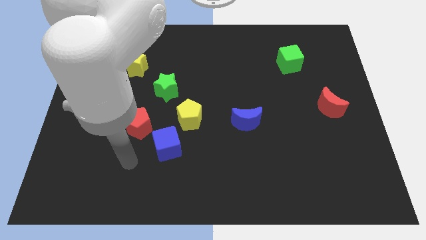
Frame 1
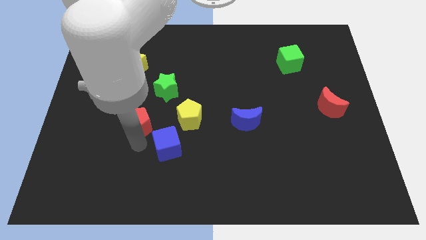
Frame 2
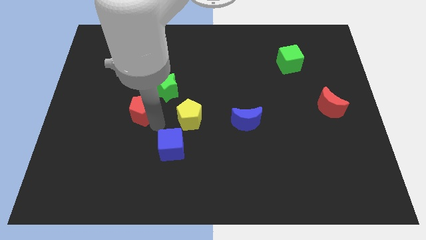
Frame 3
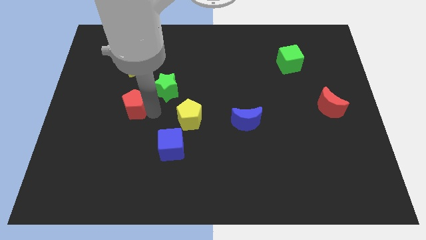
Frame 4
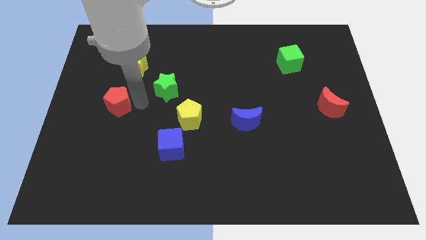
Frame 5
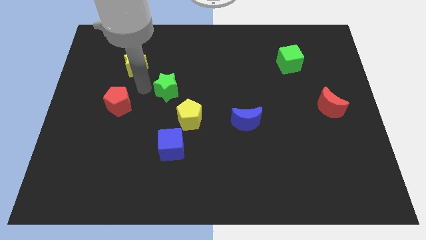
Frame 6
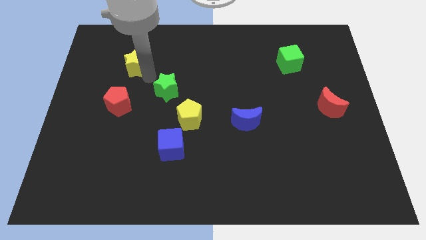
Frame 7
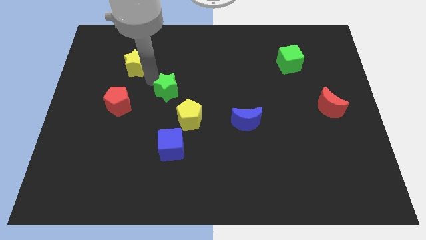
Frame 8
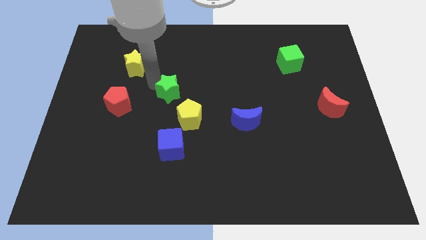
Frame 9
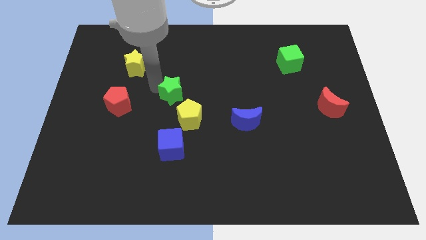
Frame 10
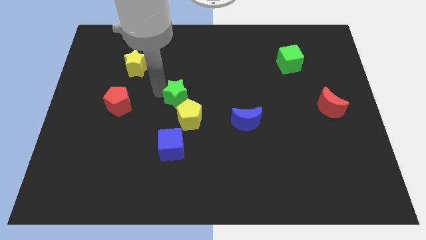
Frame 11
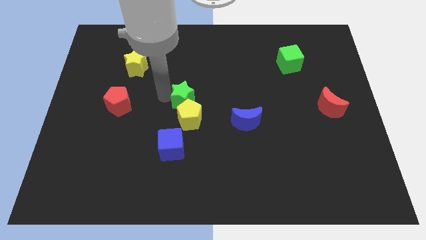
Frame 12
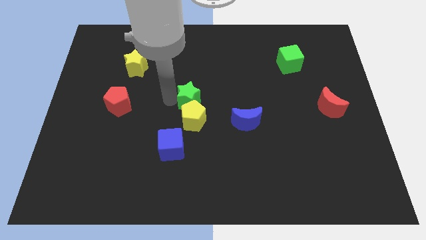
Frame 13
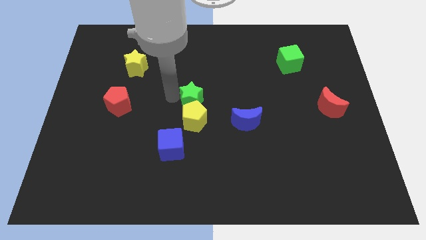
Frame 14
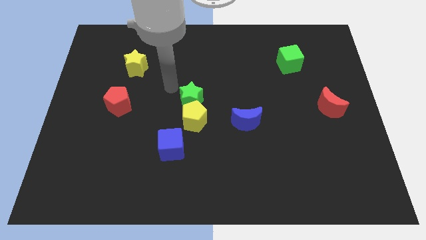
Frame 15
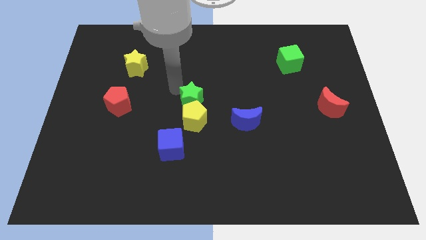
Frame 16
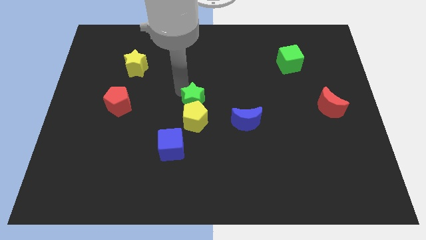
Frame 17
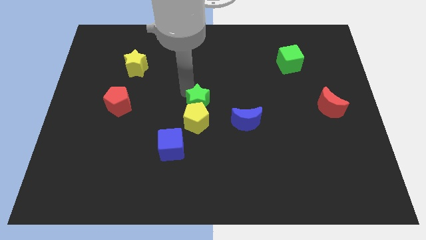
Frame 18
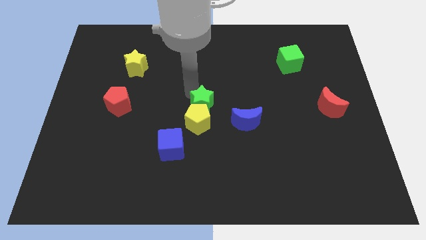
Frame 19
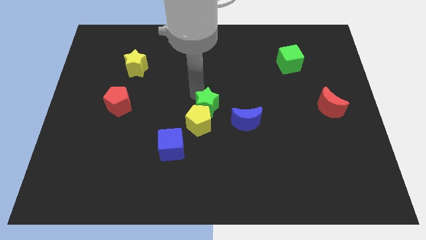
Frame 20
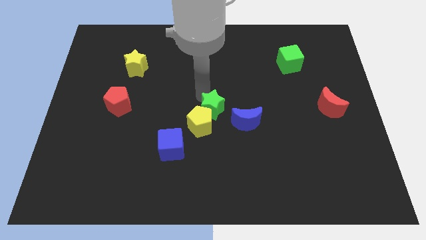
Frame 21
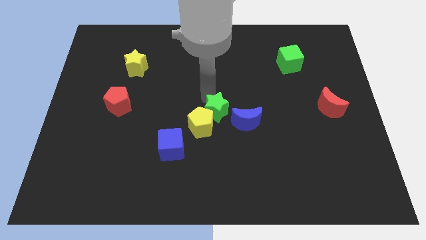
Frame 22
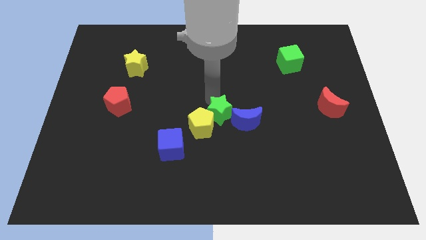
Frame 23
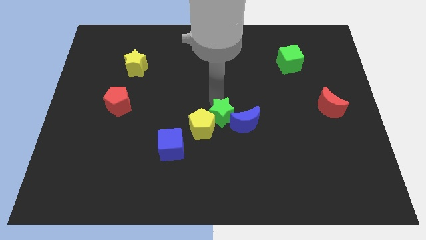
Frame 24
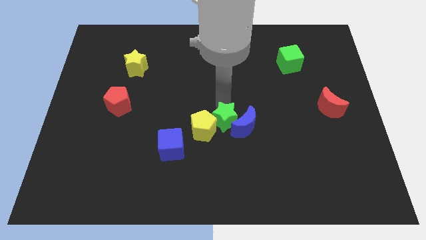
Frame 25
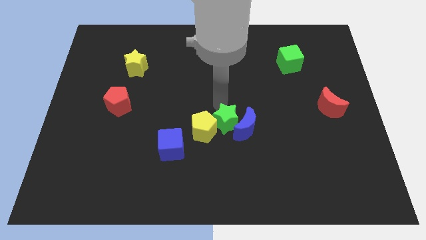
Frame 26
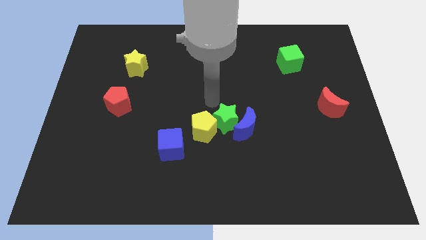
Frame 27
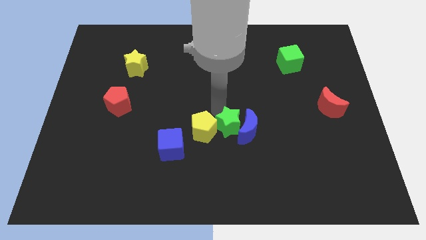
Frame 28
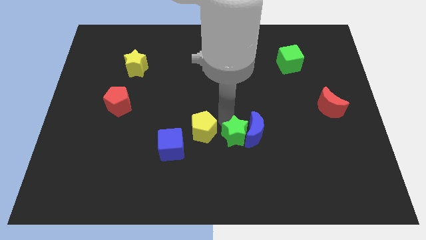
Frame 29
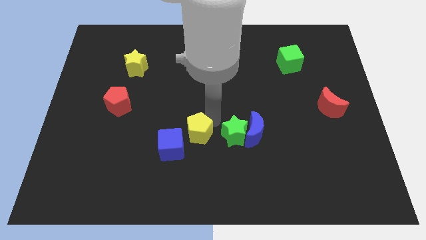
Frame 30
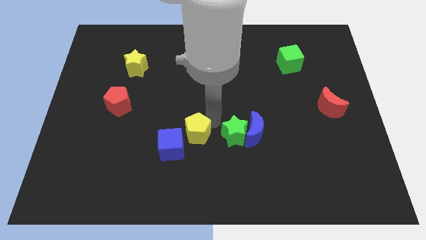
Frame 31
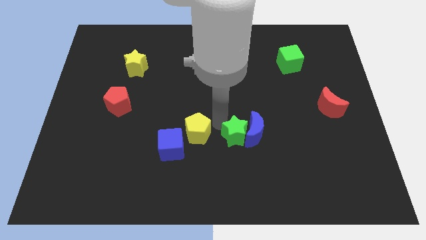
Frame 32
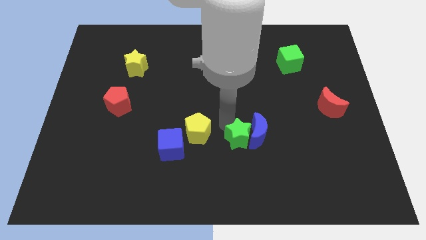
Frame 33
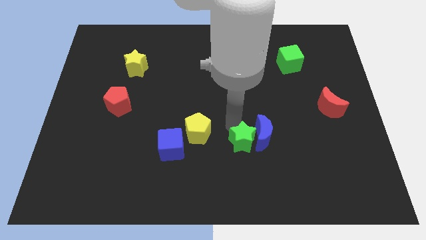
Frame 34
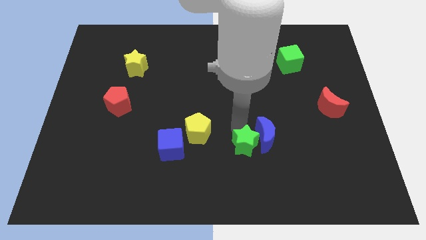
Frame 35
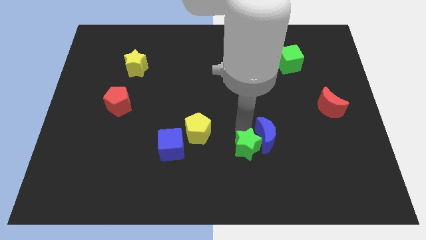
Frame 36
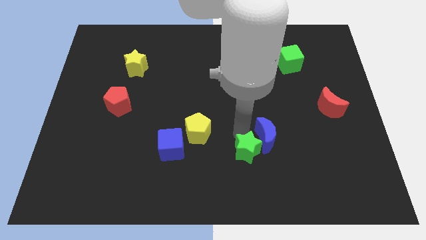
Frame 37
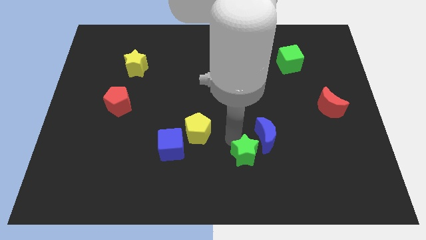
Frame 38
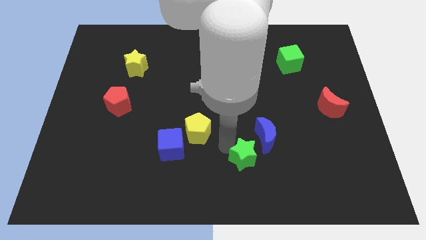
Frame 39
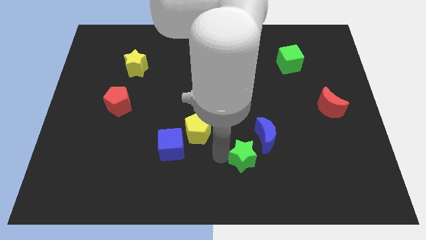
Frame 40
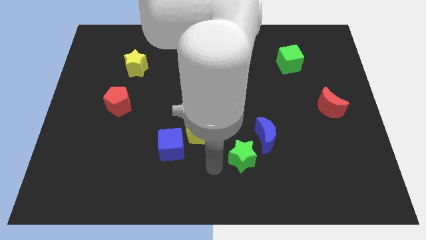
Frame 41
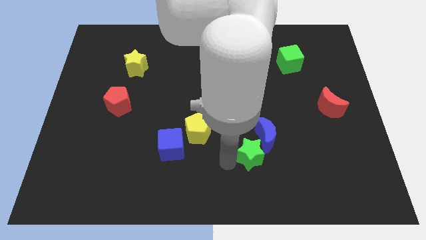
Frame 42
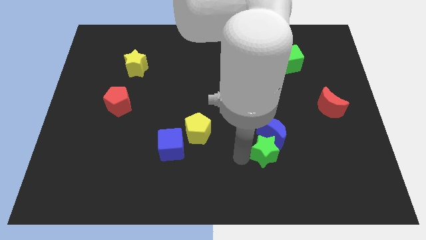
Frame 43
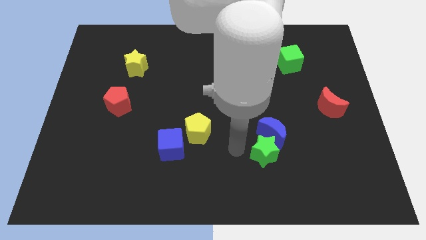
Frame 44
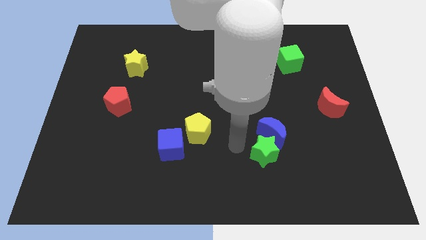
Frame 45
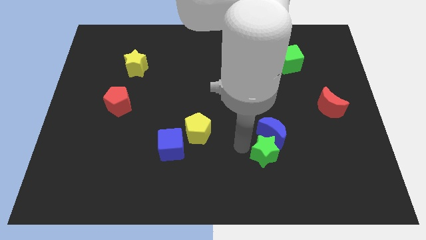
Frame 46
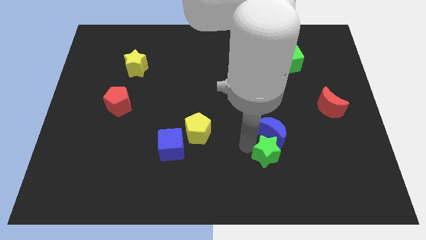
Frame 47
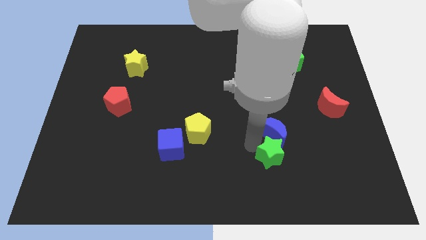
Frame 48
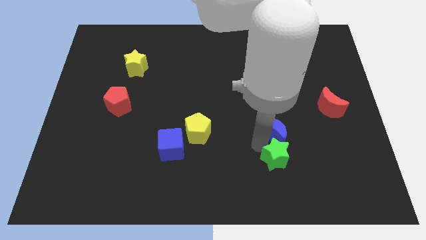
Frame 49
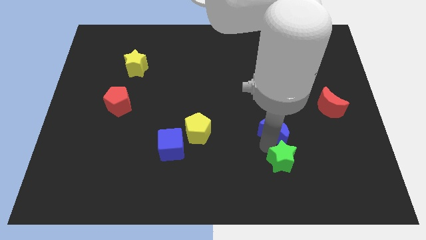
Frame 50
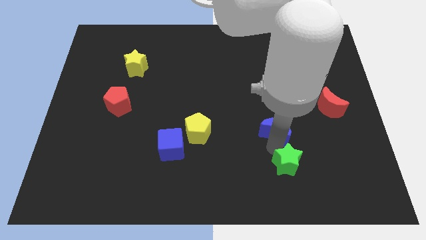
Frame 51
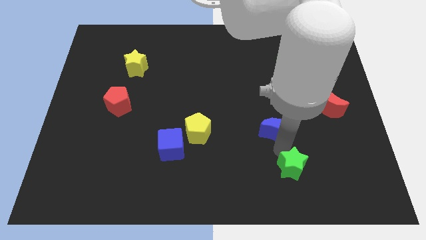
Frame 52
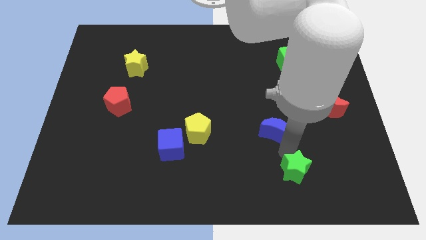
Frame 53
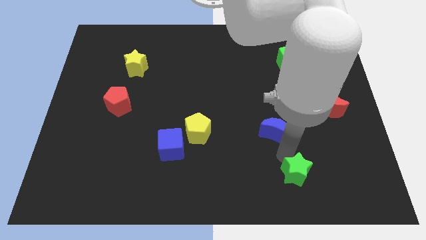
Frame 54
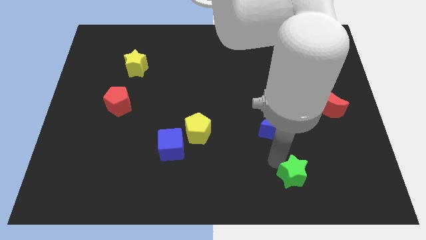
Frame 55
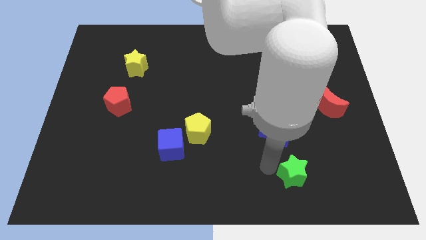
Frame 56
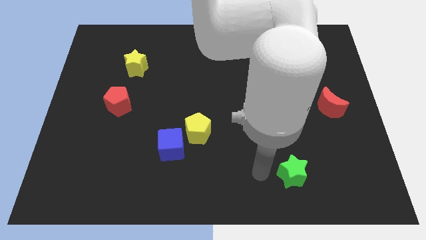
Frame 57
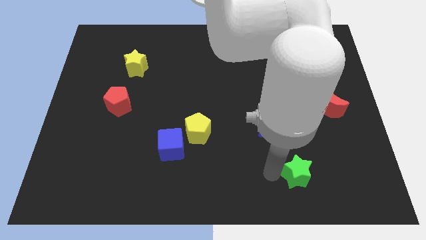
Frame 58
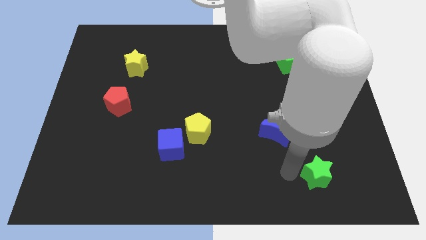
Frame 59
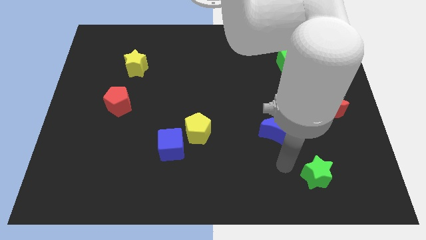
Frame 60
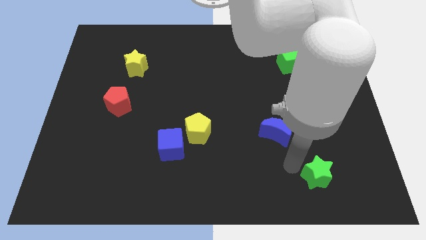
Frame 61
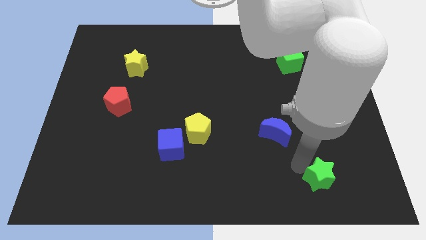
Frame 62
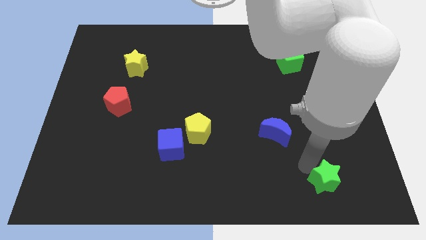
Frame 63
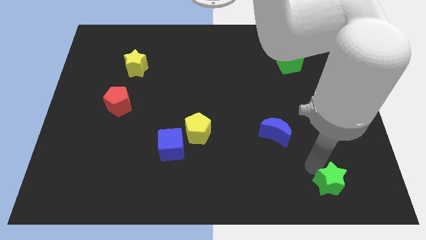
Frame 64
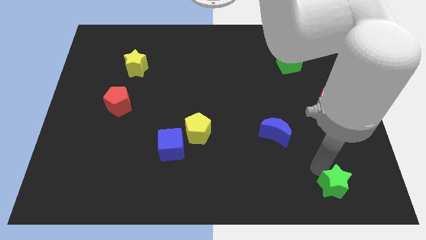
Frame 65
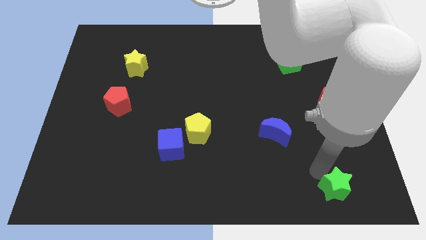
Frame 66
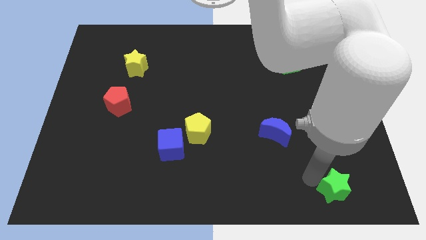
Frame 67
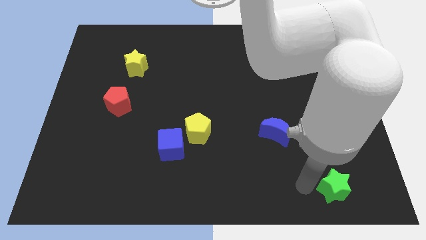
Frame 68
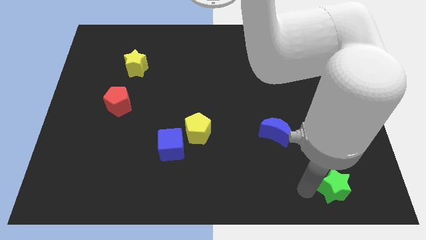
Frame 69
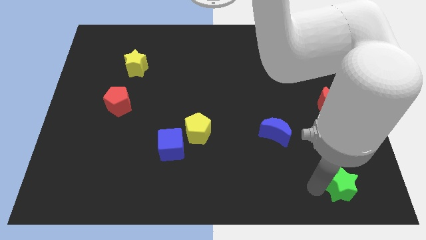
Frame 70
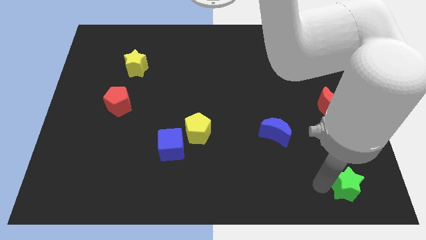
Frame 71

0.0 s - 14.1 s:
move the green star to the lower right corner
